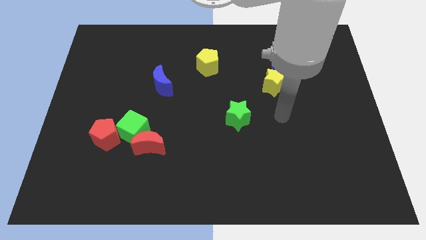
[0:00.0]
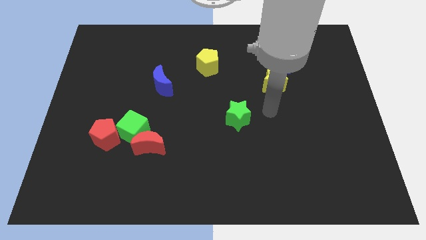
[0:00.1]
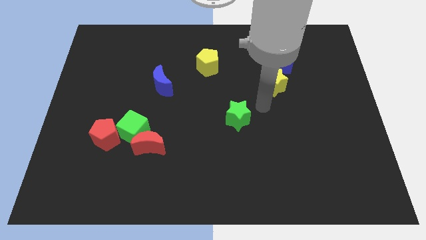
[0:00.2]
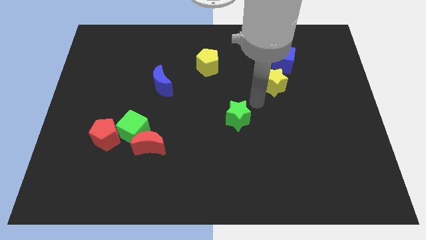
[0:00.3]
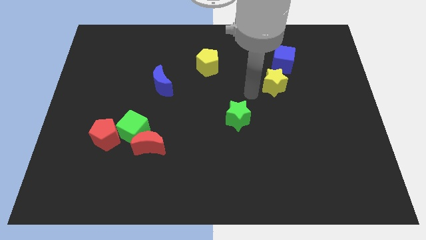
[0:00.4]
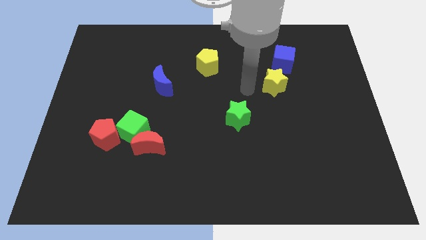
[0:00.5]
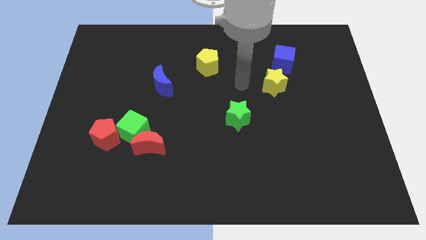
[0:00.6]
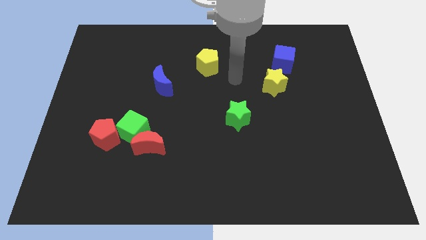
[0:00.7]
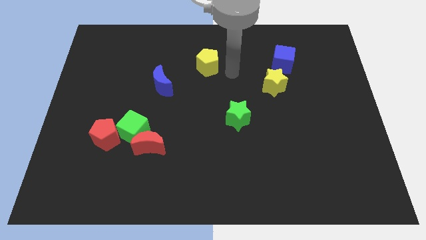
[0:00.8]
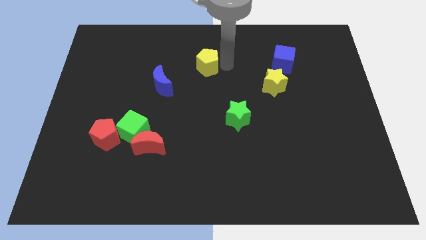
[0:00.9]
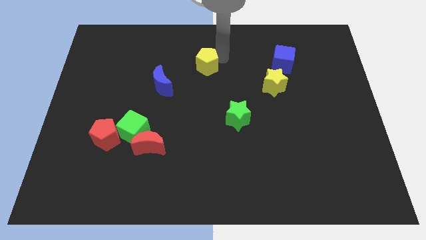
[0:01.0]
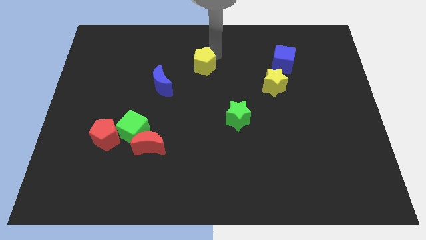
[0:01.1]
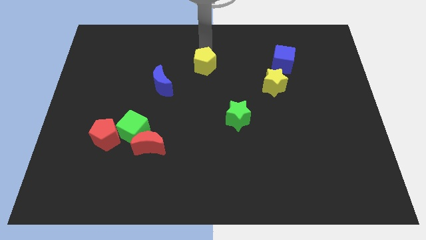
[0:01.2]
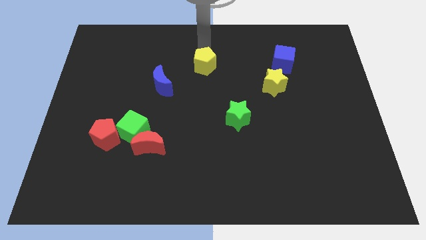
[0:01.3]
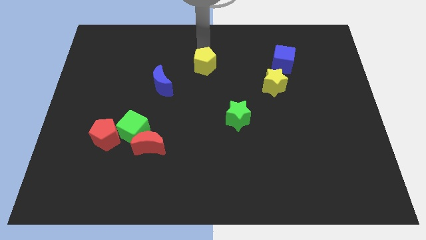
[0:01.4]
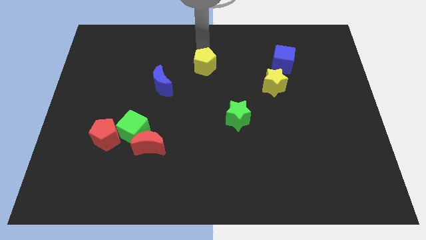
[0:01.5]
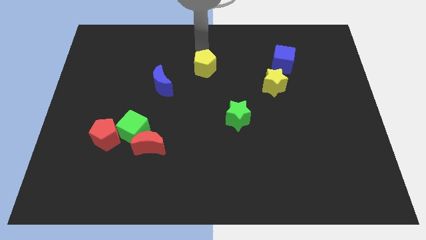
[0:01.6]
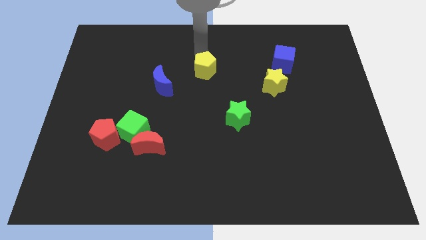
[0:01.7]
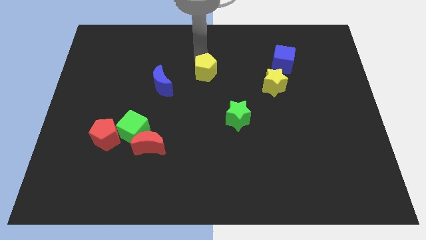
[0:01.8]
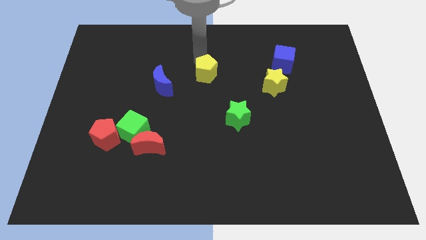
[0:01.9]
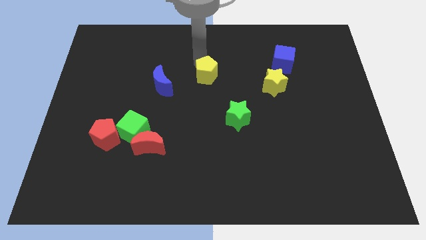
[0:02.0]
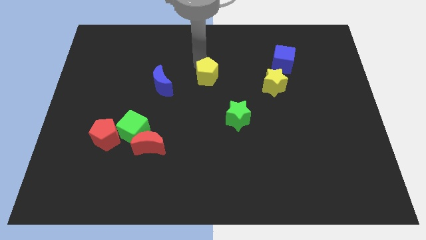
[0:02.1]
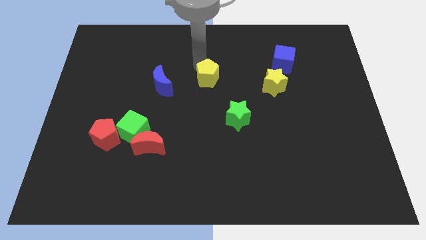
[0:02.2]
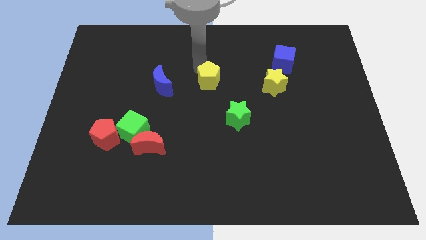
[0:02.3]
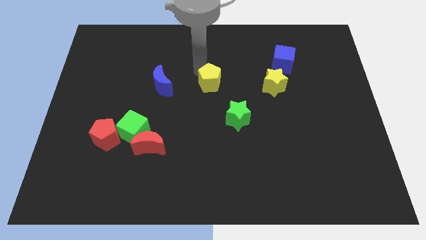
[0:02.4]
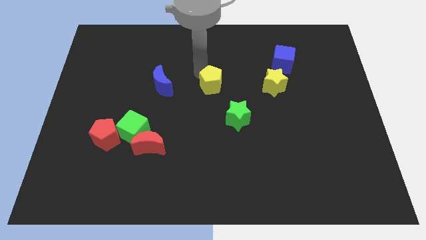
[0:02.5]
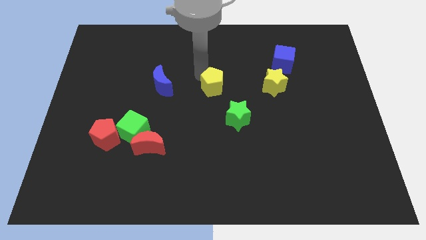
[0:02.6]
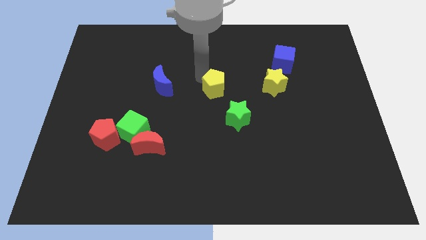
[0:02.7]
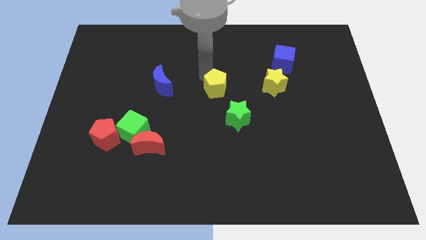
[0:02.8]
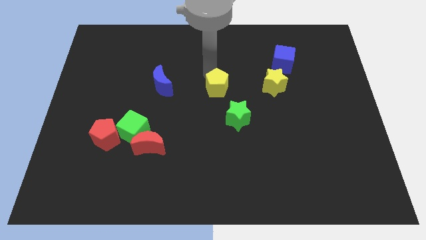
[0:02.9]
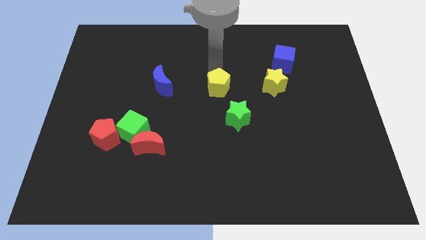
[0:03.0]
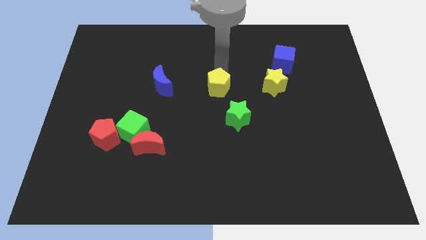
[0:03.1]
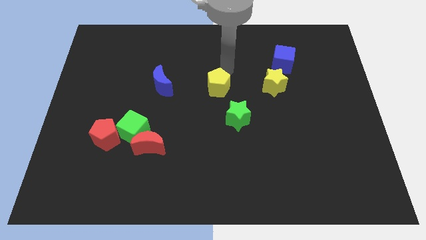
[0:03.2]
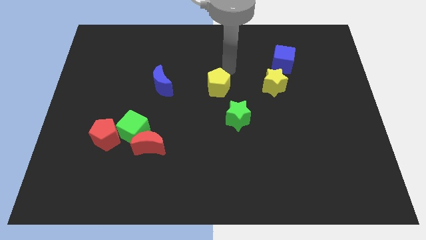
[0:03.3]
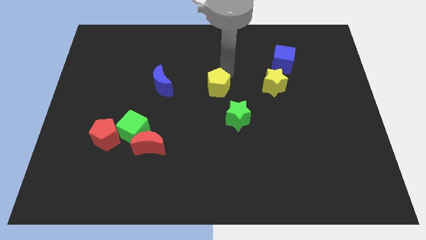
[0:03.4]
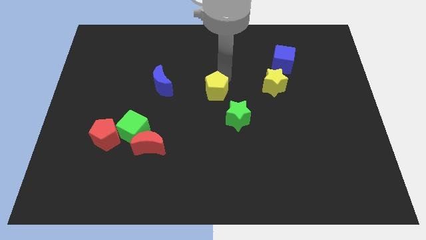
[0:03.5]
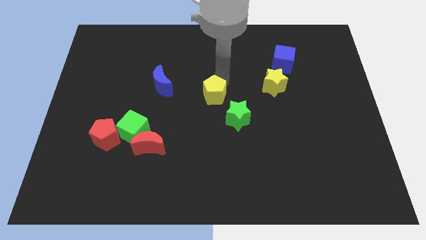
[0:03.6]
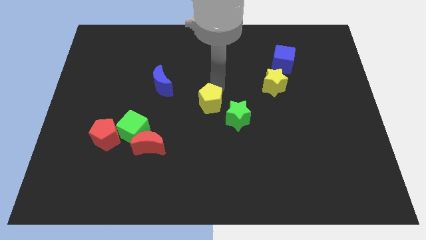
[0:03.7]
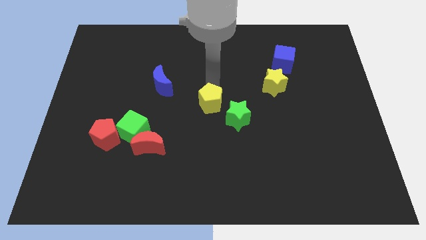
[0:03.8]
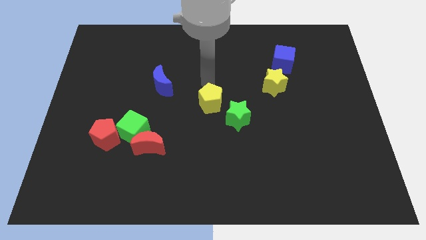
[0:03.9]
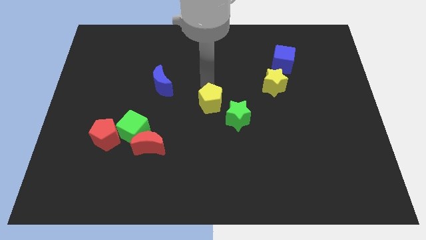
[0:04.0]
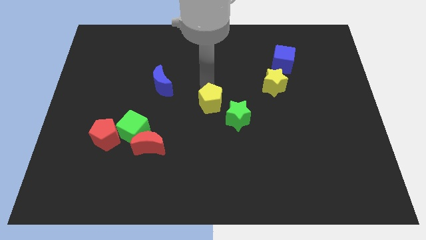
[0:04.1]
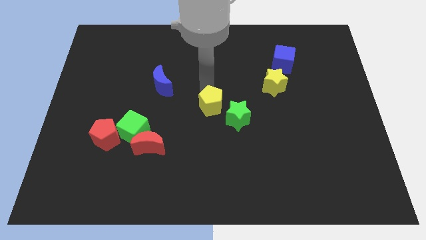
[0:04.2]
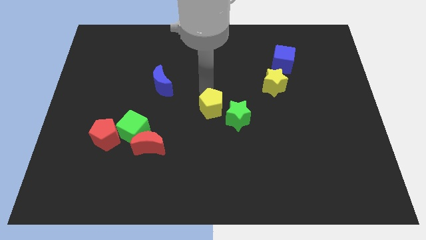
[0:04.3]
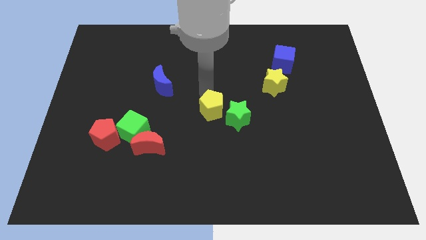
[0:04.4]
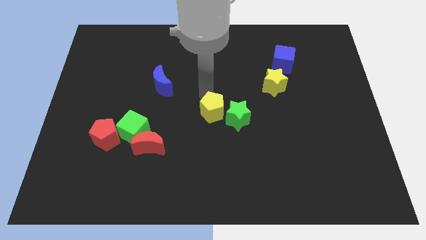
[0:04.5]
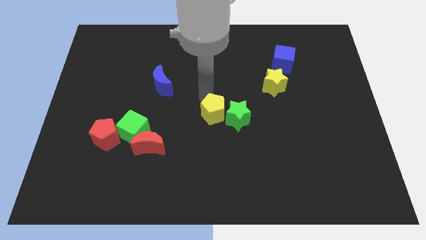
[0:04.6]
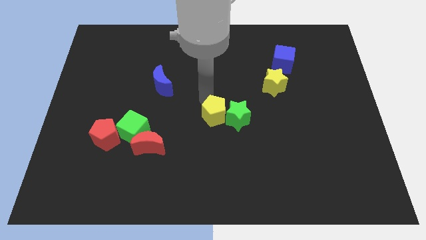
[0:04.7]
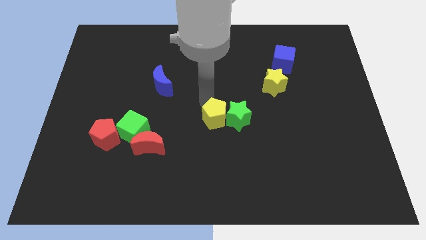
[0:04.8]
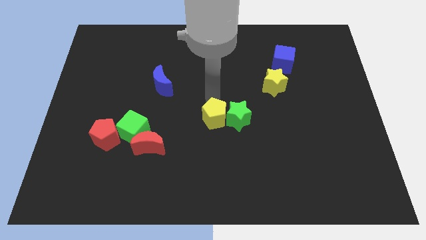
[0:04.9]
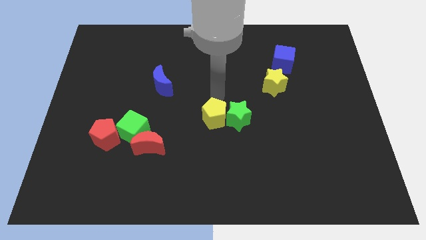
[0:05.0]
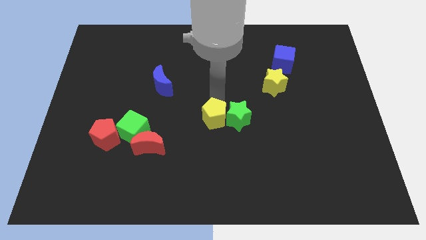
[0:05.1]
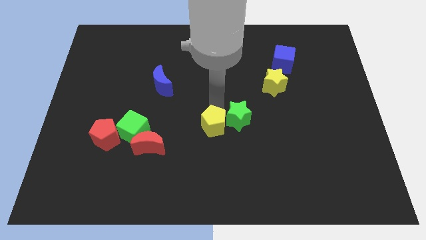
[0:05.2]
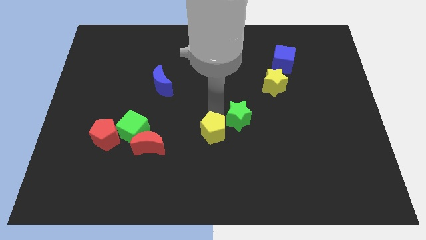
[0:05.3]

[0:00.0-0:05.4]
move the yellow pentagon down

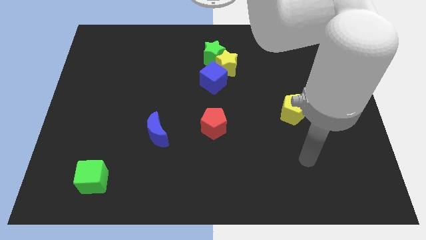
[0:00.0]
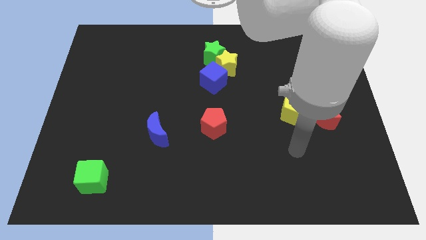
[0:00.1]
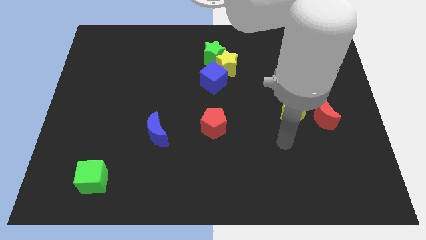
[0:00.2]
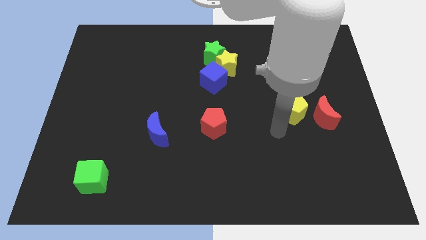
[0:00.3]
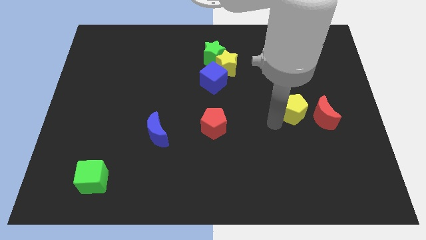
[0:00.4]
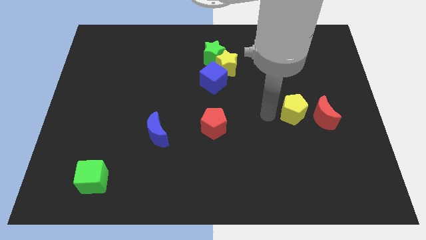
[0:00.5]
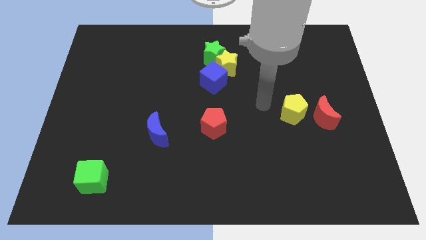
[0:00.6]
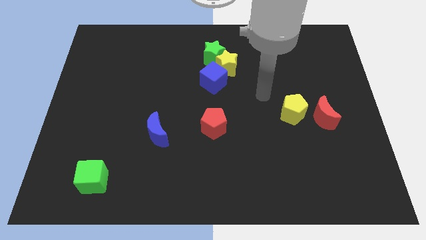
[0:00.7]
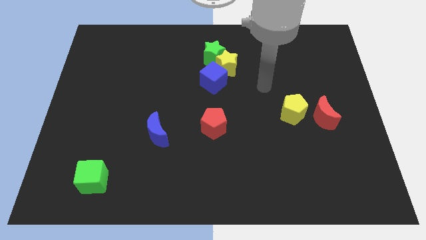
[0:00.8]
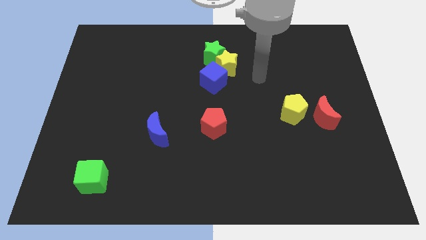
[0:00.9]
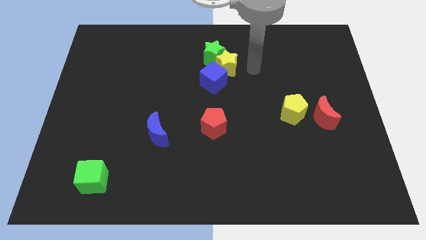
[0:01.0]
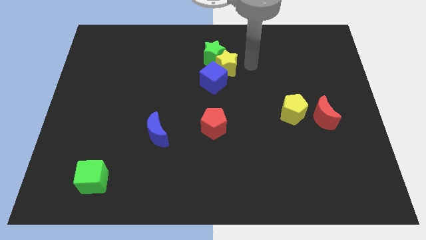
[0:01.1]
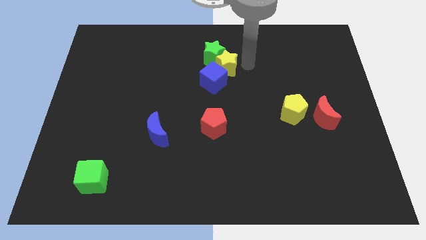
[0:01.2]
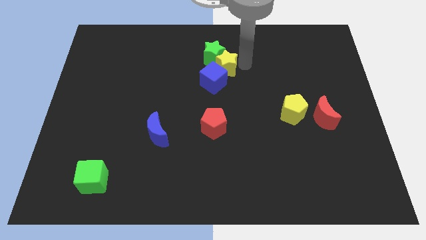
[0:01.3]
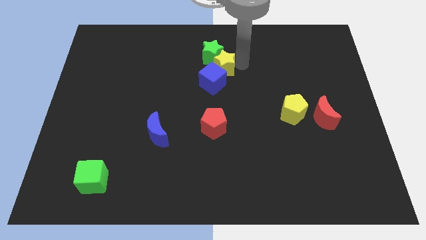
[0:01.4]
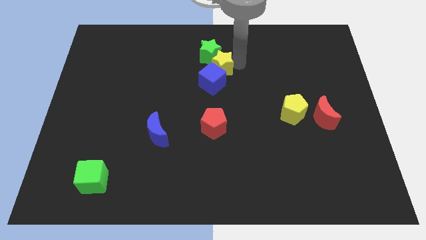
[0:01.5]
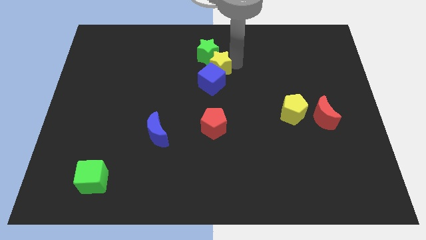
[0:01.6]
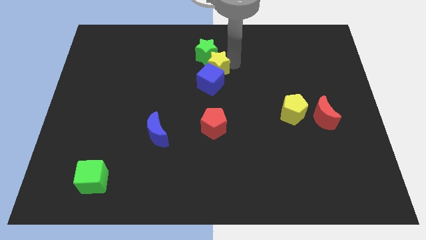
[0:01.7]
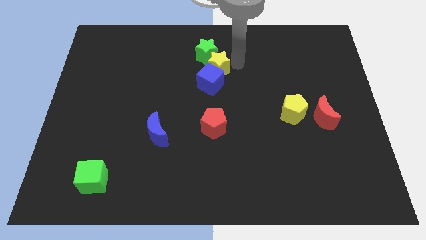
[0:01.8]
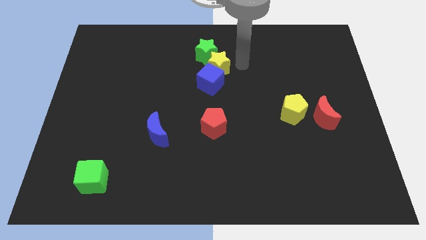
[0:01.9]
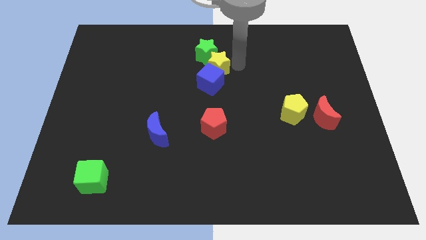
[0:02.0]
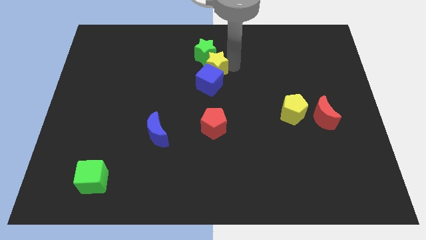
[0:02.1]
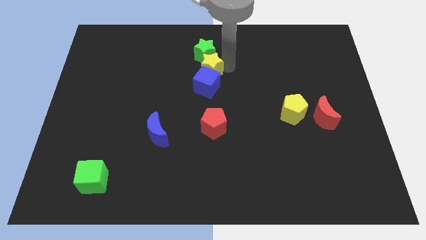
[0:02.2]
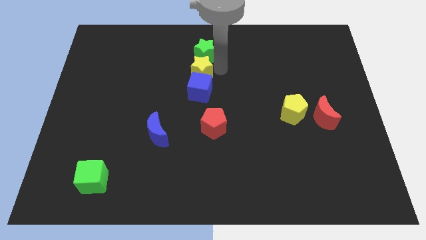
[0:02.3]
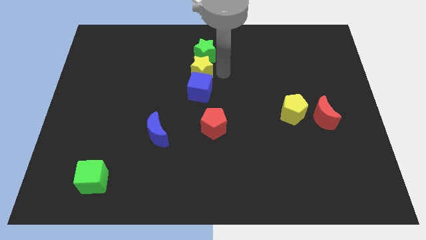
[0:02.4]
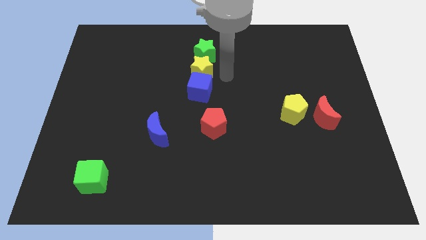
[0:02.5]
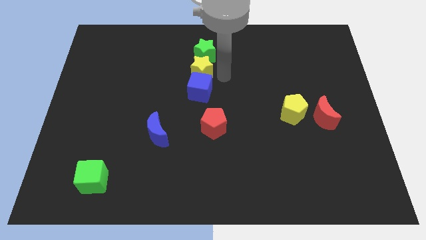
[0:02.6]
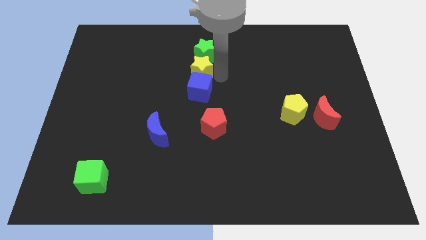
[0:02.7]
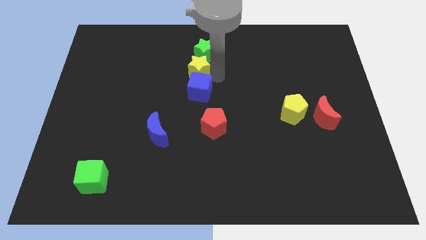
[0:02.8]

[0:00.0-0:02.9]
slide the yellow star to the left slightly
